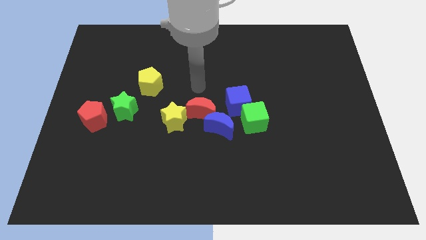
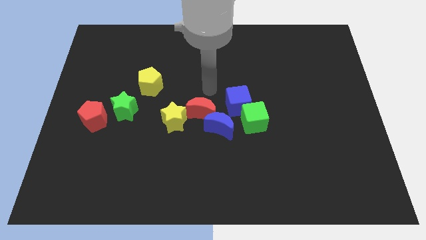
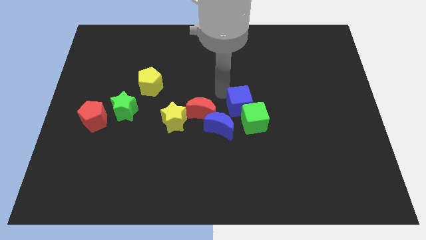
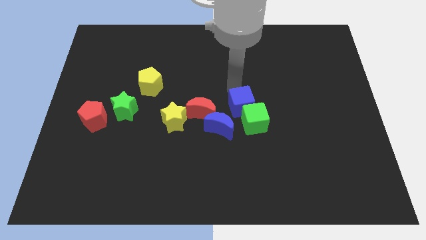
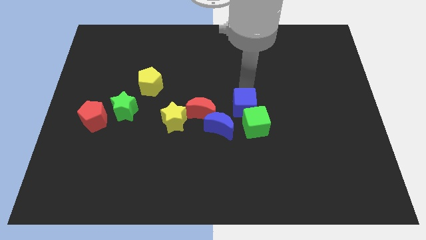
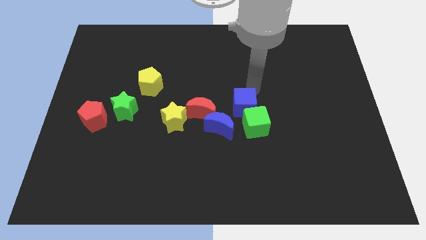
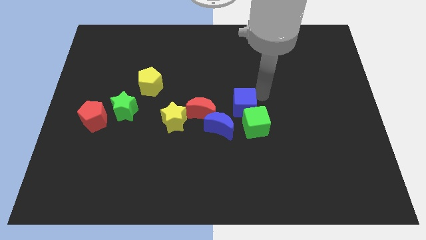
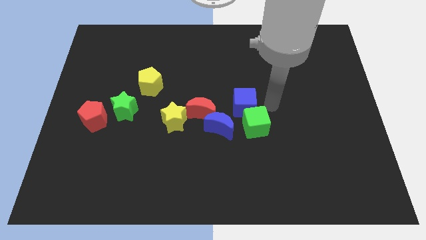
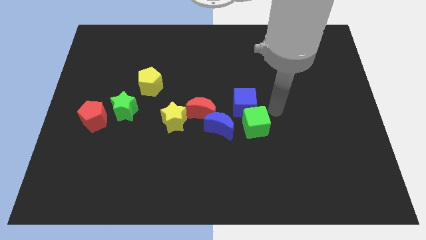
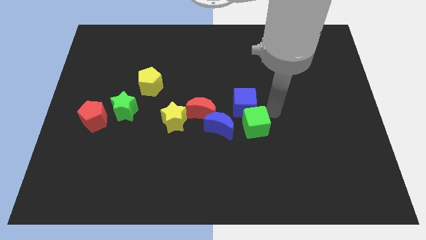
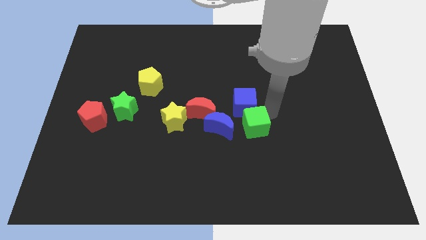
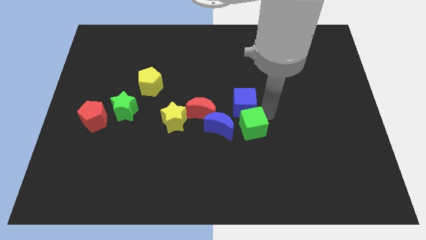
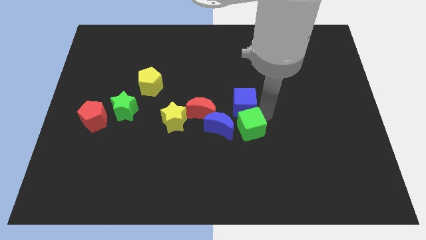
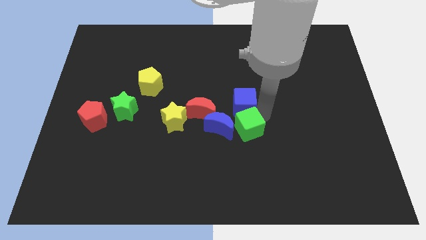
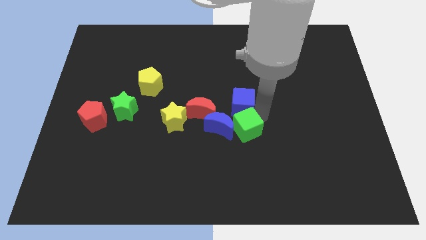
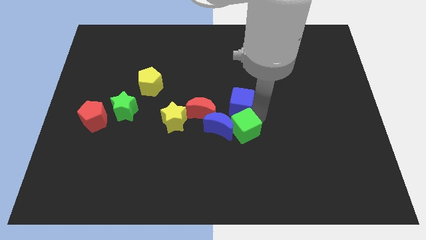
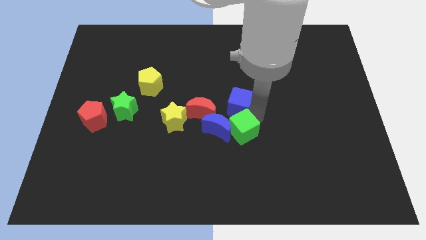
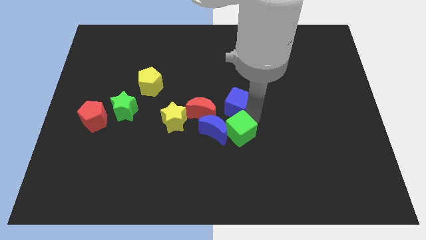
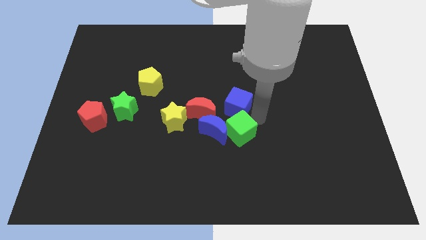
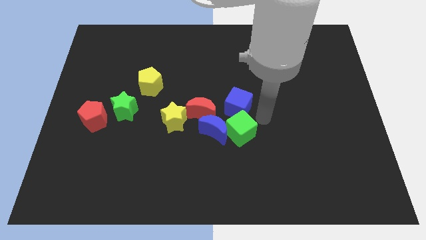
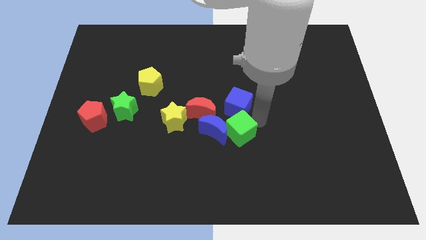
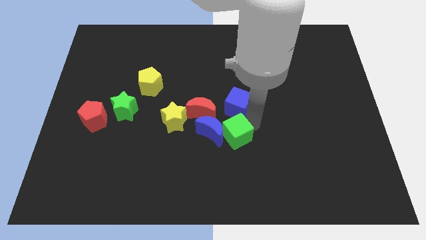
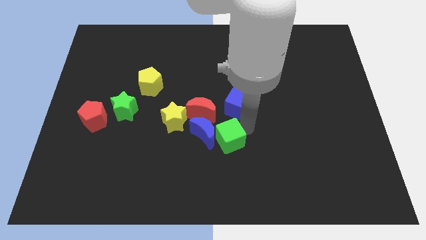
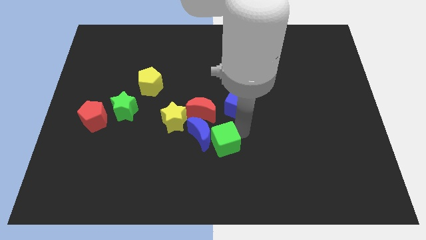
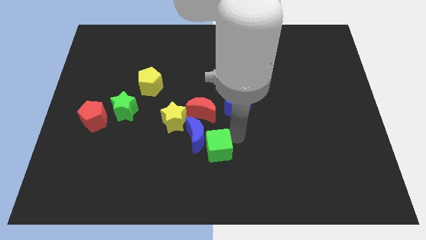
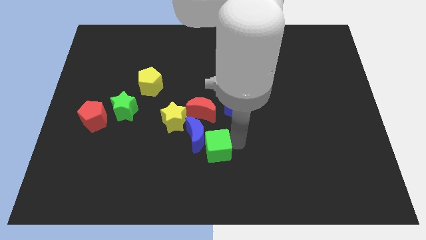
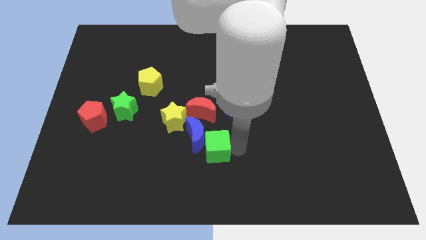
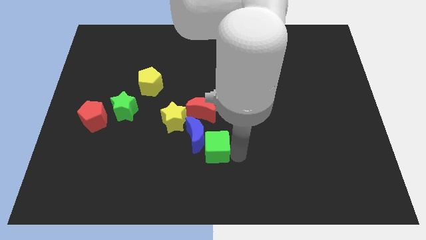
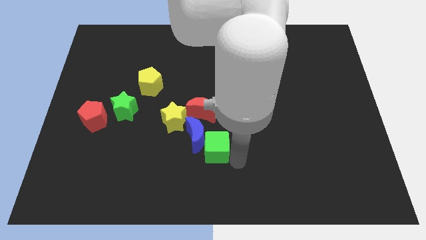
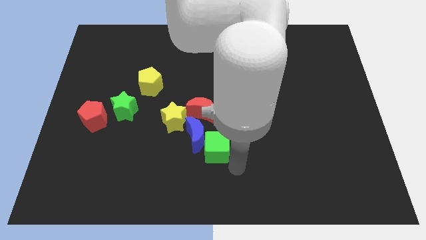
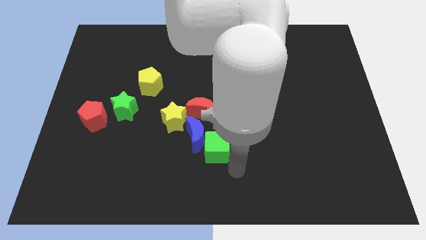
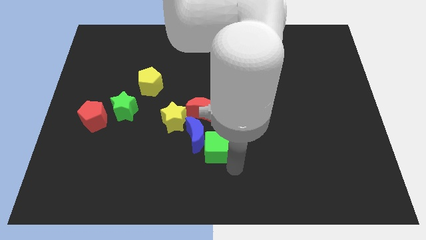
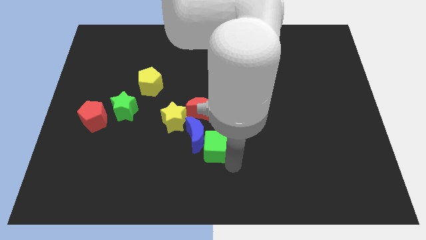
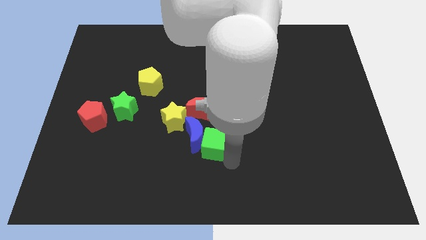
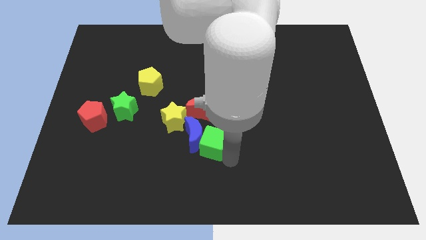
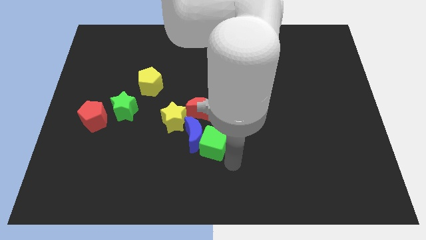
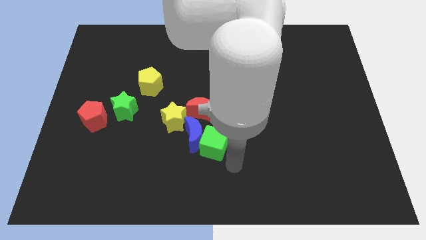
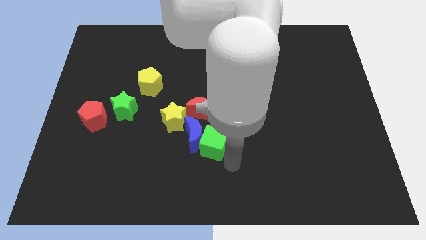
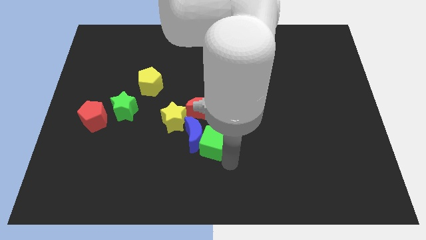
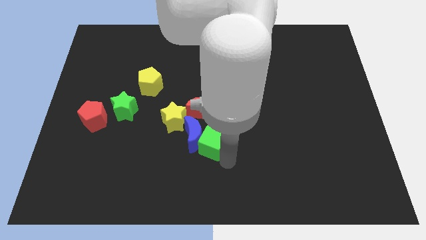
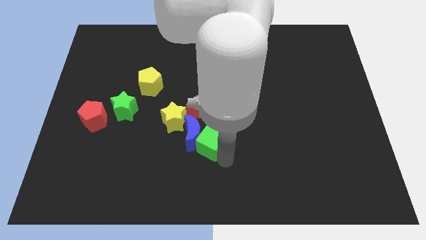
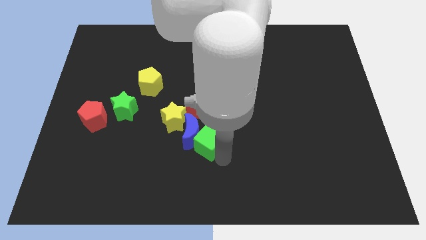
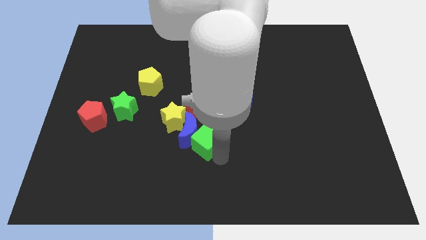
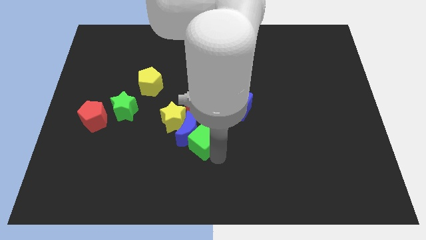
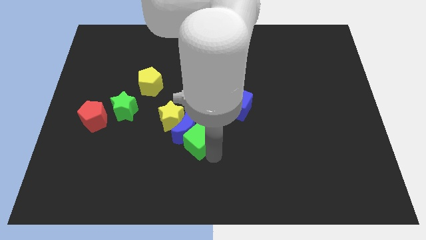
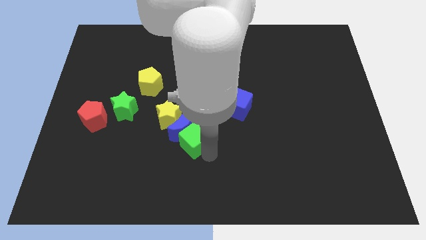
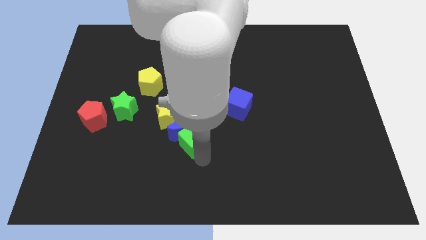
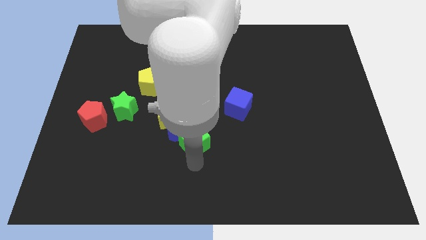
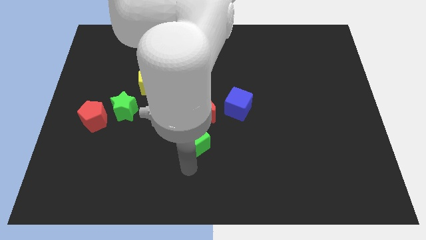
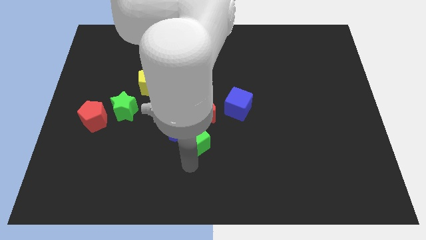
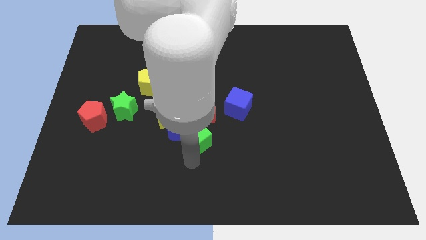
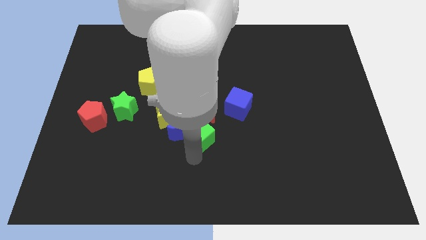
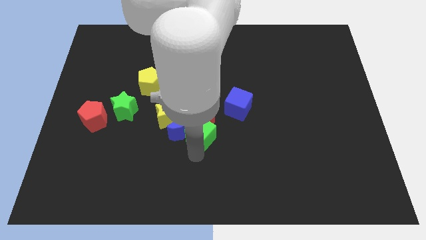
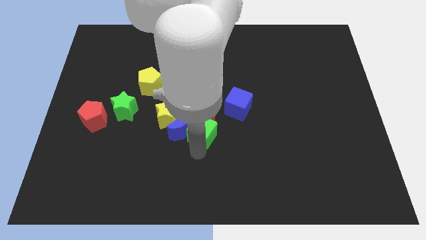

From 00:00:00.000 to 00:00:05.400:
put the green cube close to the red moon

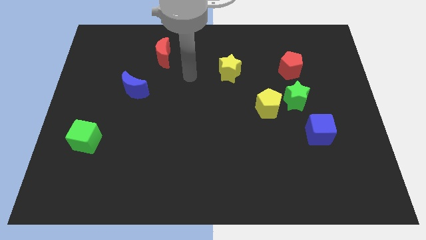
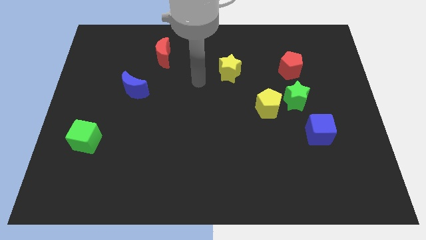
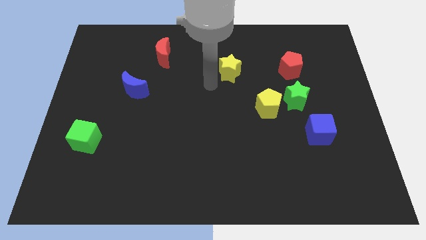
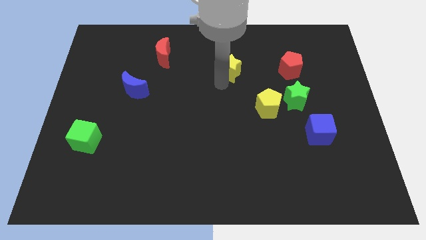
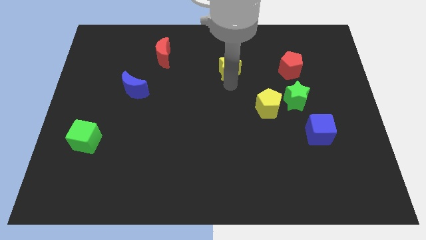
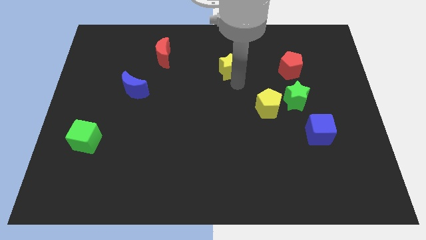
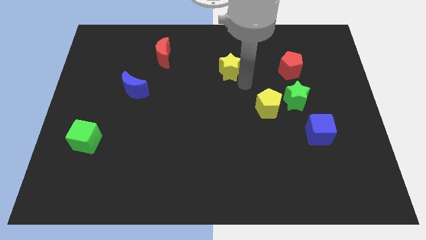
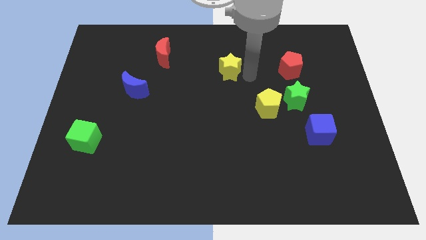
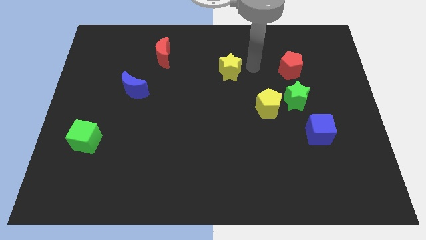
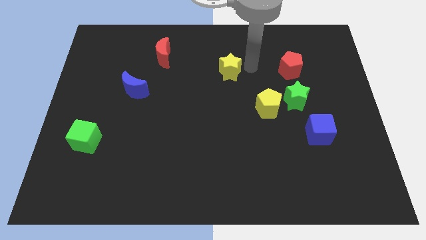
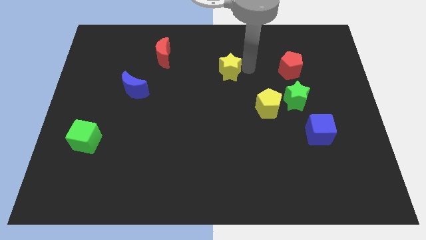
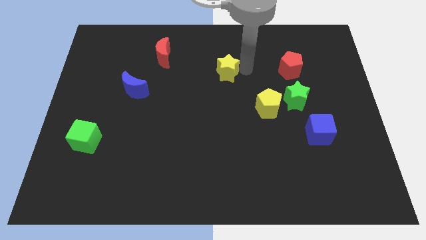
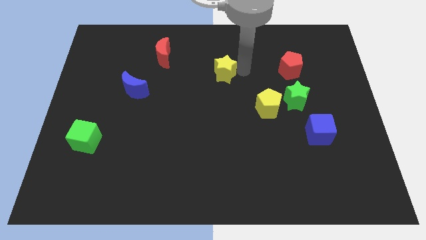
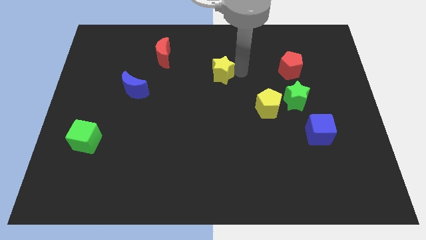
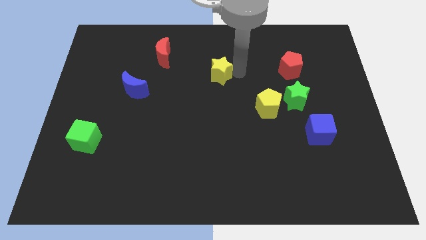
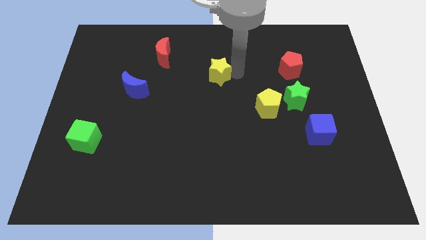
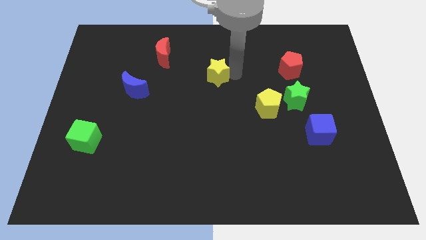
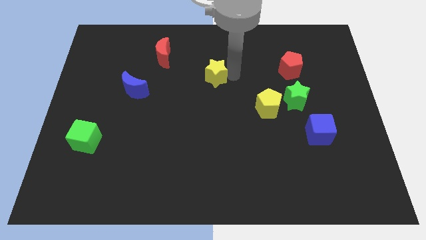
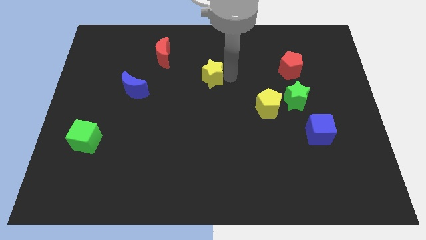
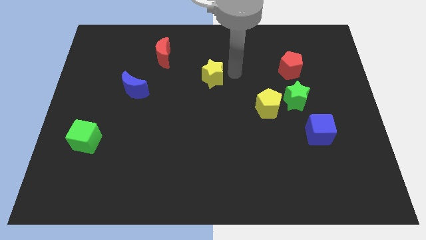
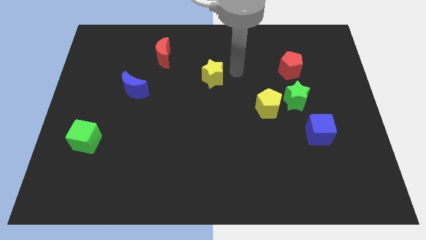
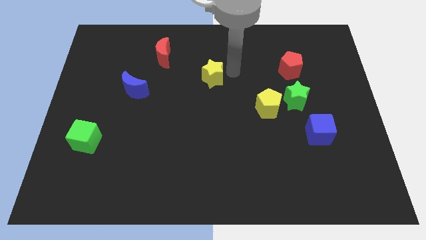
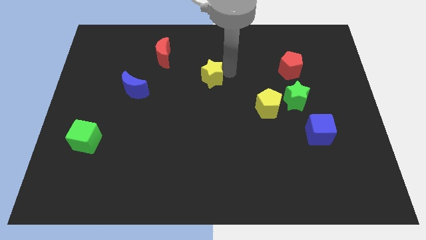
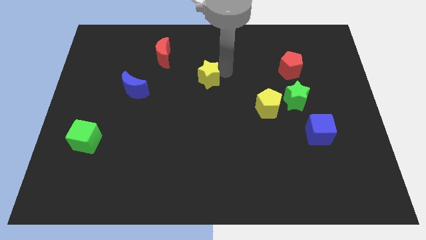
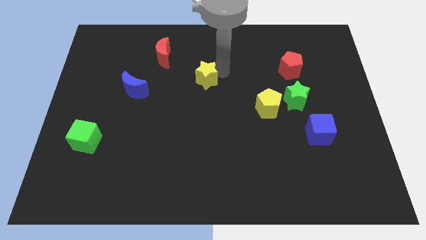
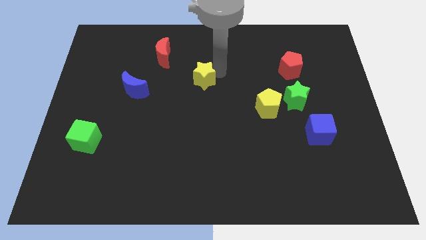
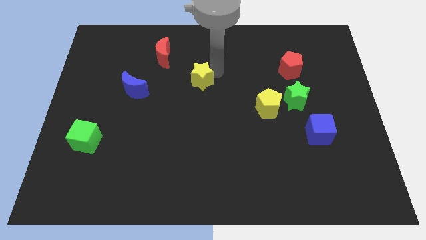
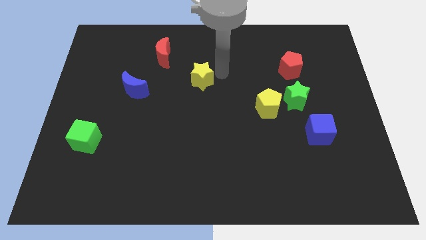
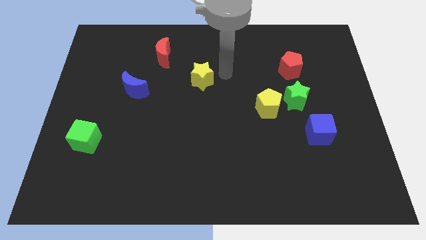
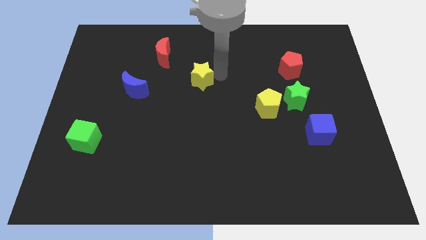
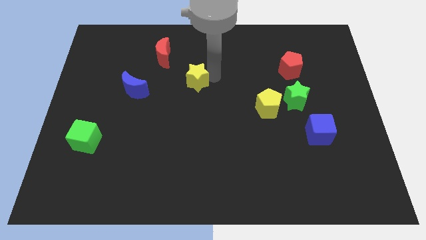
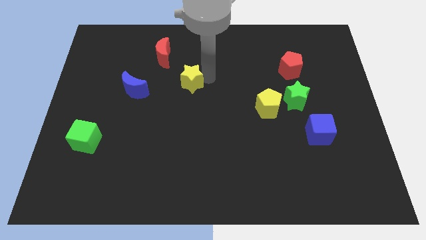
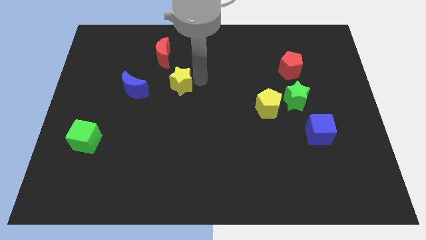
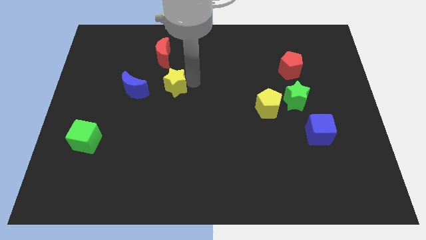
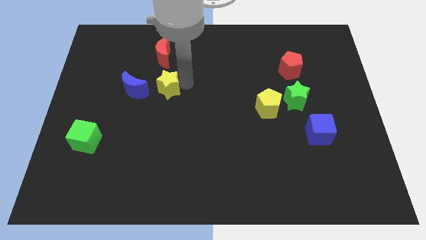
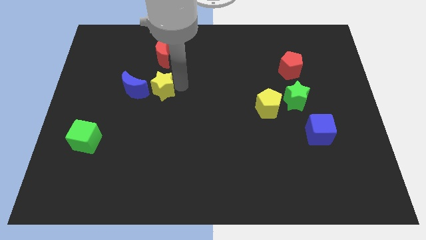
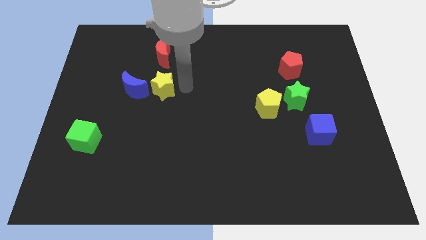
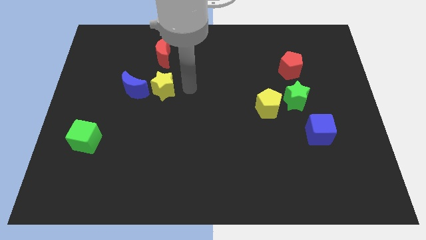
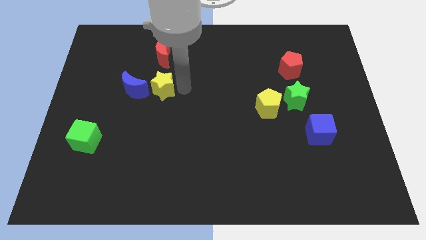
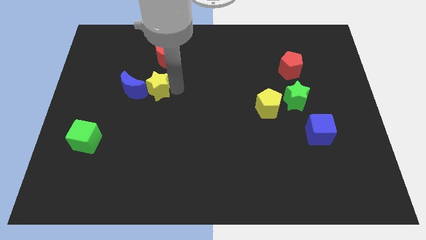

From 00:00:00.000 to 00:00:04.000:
slide the yellow star to the blue moon
